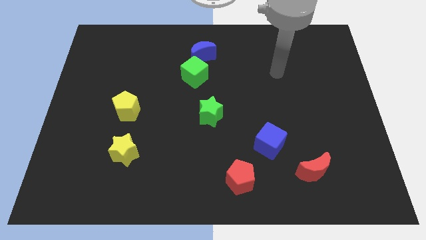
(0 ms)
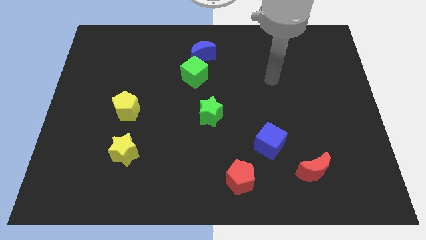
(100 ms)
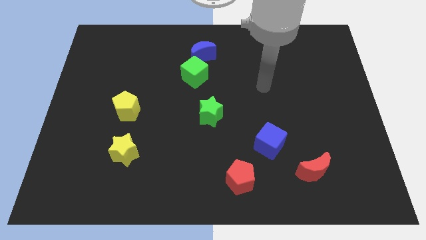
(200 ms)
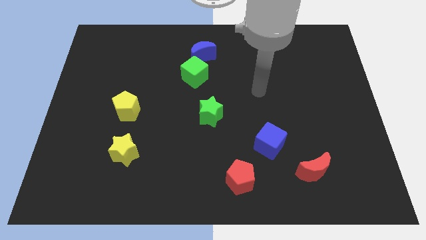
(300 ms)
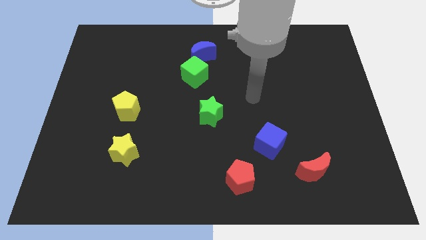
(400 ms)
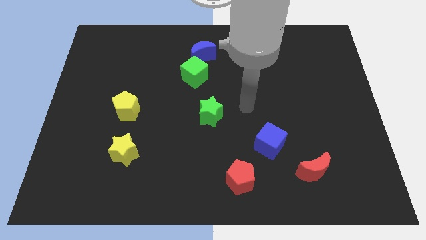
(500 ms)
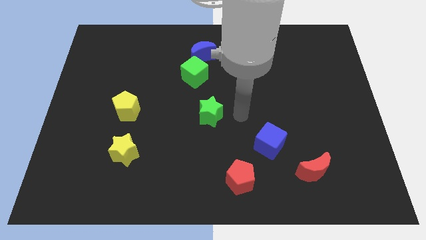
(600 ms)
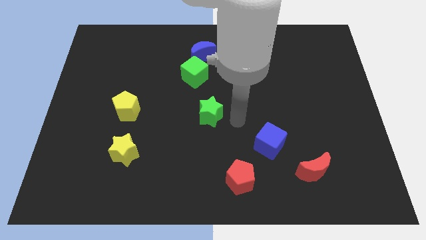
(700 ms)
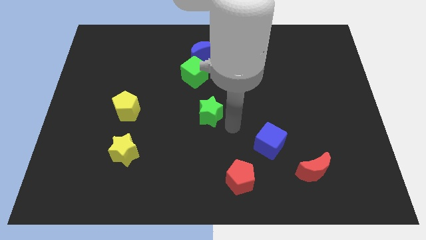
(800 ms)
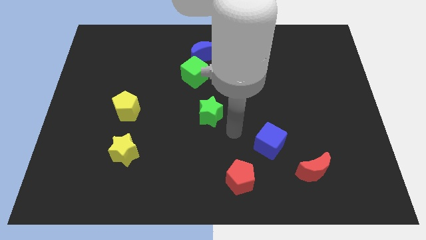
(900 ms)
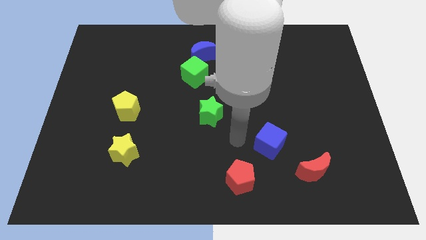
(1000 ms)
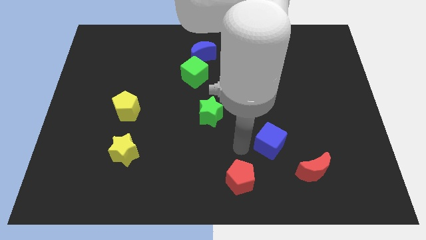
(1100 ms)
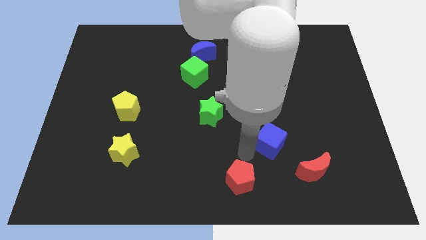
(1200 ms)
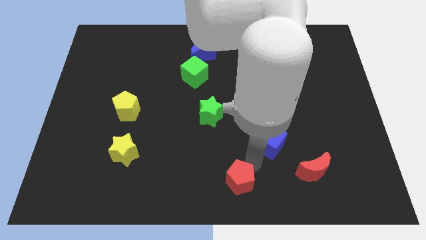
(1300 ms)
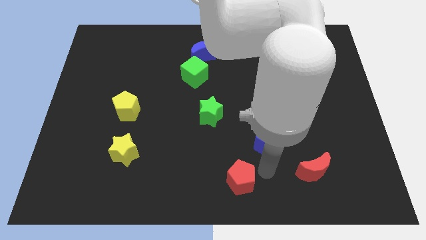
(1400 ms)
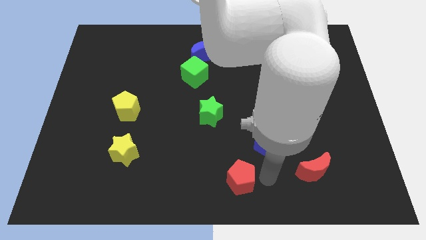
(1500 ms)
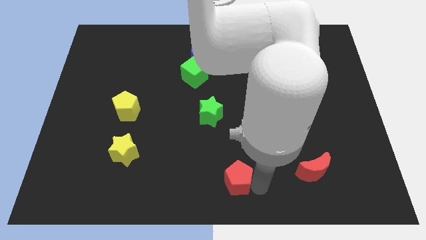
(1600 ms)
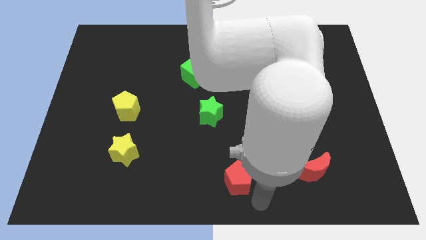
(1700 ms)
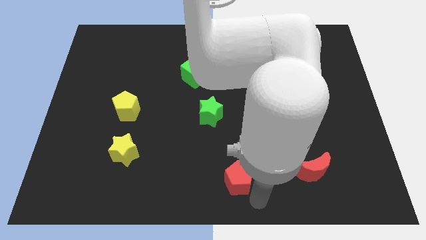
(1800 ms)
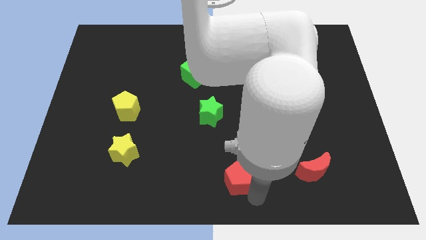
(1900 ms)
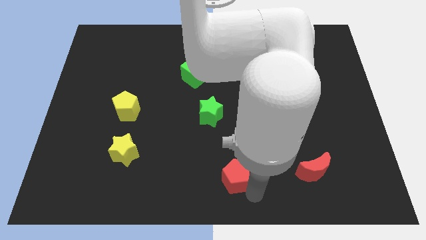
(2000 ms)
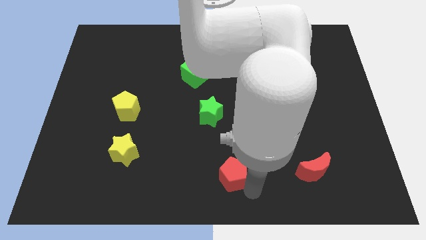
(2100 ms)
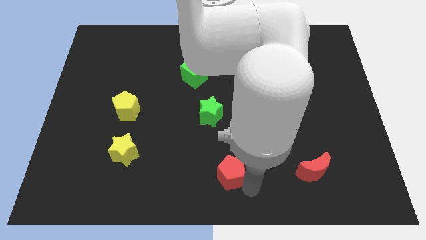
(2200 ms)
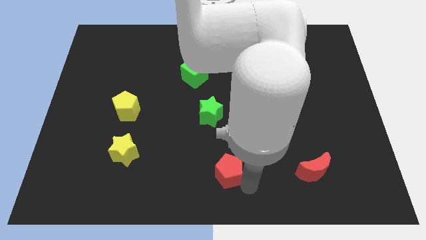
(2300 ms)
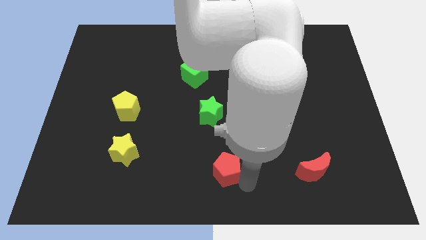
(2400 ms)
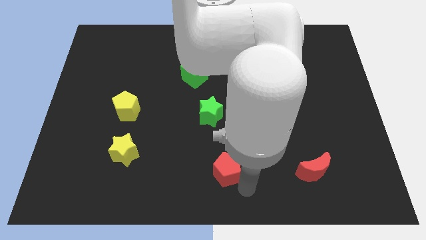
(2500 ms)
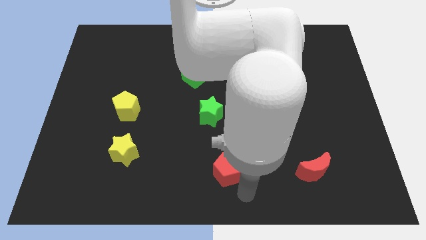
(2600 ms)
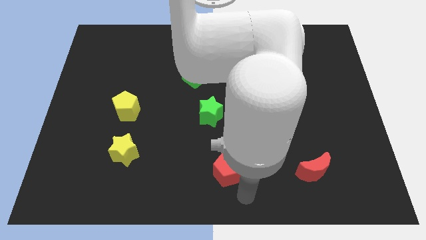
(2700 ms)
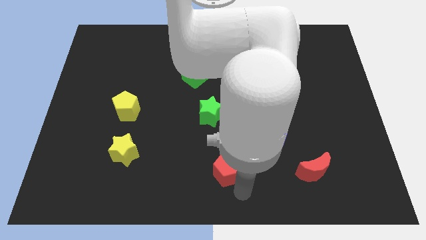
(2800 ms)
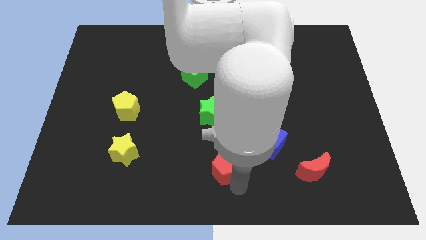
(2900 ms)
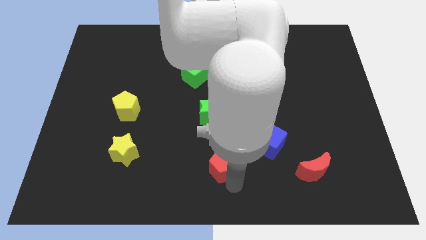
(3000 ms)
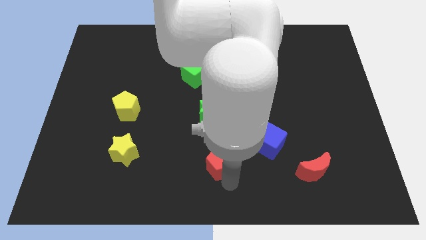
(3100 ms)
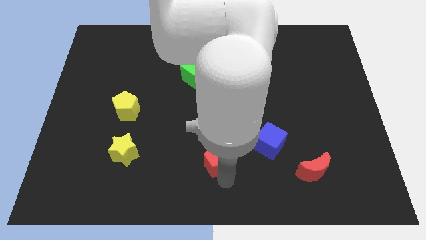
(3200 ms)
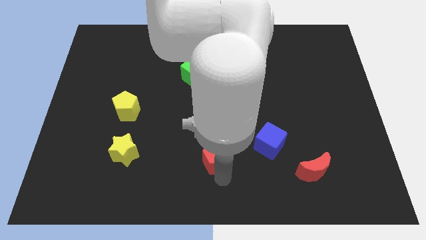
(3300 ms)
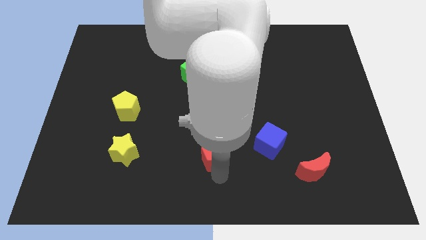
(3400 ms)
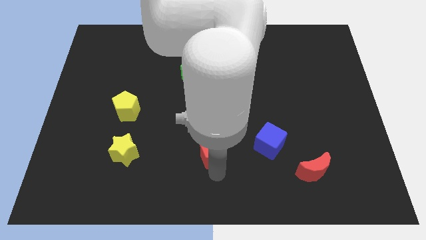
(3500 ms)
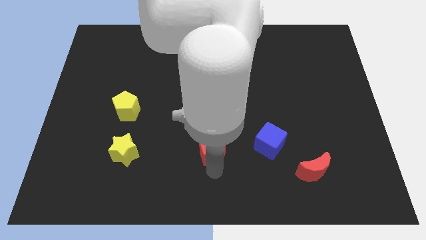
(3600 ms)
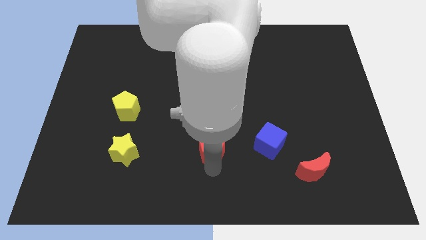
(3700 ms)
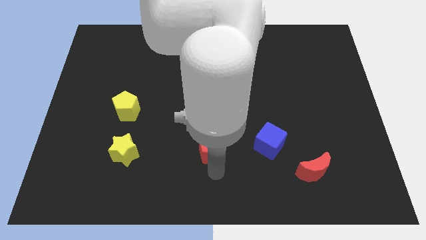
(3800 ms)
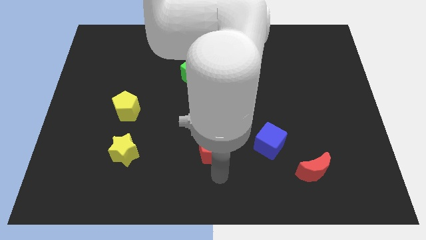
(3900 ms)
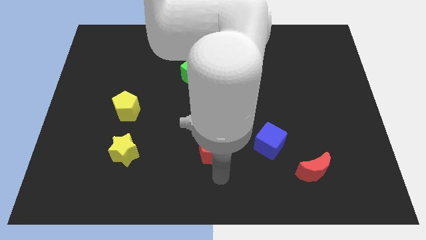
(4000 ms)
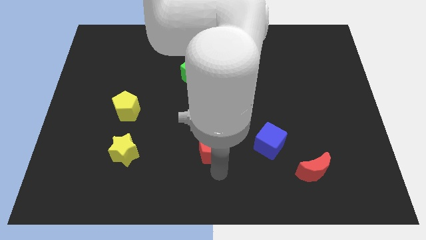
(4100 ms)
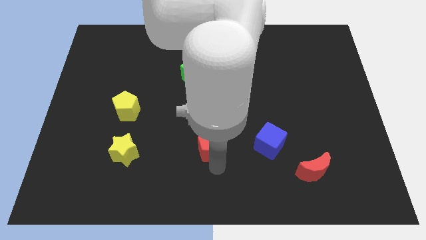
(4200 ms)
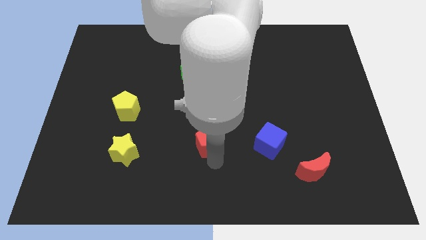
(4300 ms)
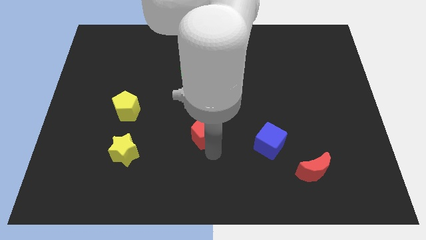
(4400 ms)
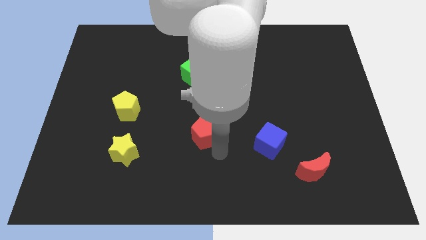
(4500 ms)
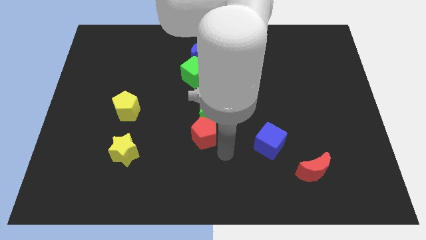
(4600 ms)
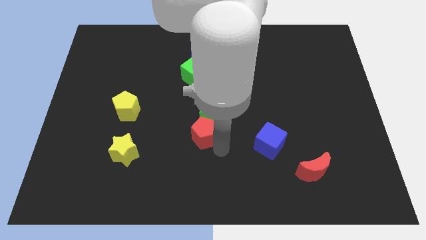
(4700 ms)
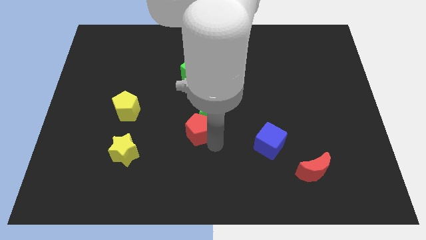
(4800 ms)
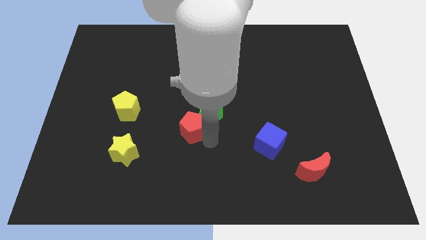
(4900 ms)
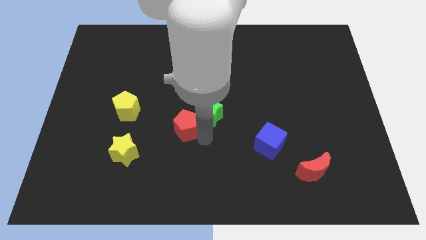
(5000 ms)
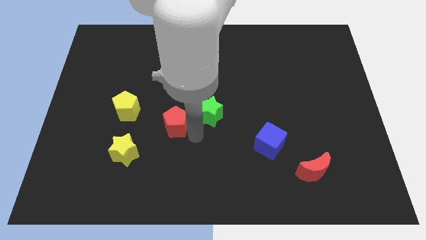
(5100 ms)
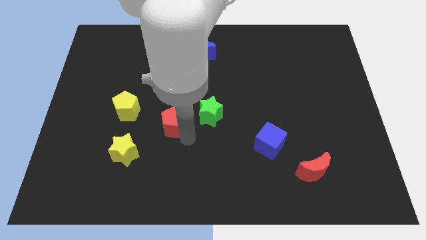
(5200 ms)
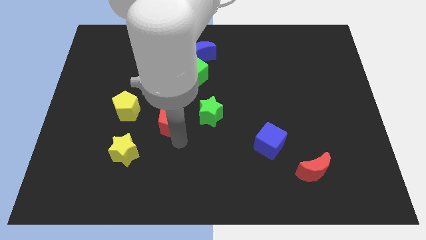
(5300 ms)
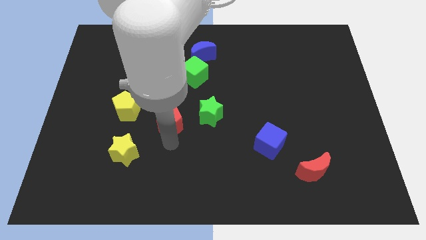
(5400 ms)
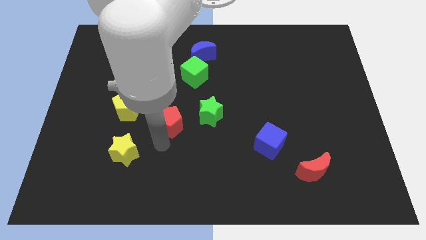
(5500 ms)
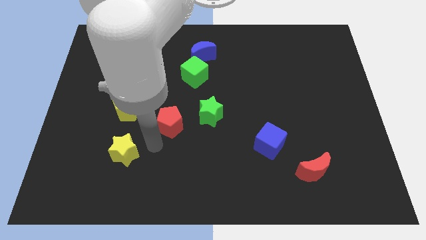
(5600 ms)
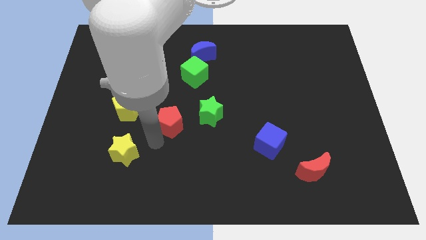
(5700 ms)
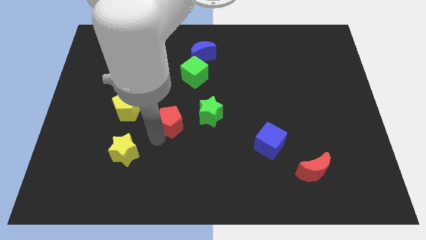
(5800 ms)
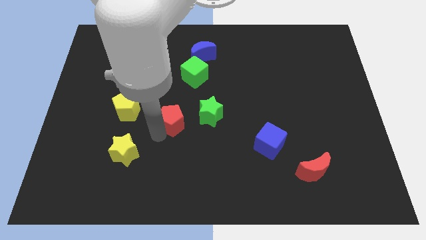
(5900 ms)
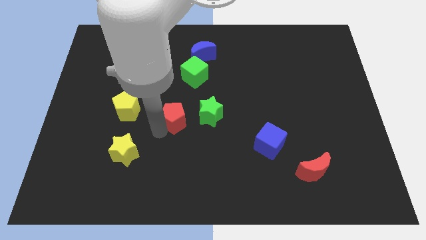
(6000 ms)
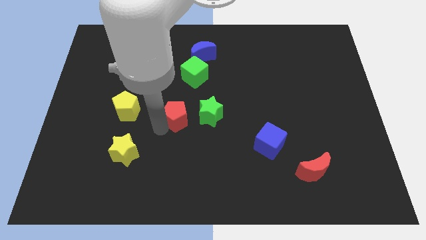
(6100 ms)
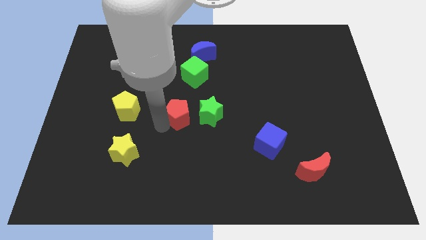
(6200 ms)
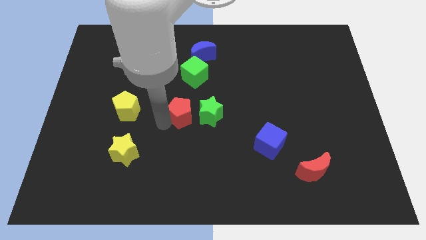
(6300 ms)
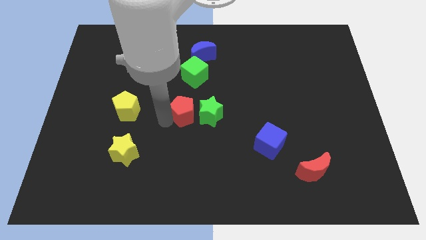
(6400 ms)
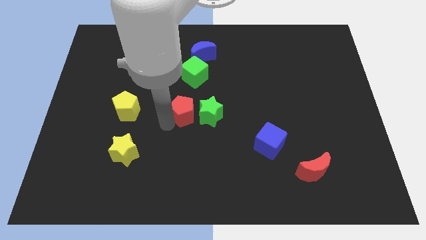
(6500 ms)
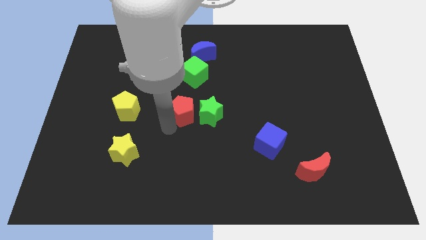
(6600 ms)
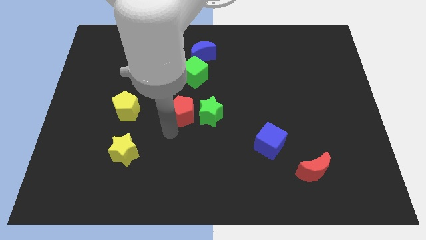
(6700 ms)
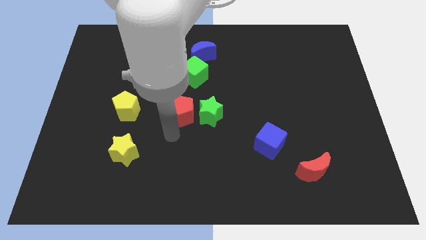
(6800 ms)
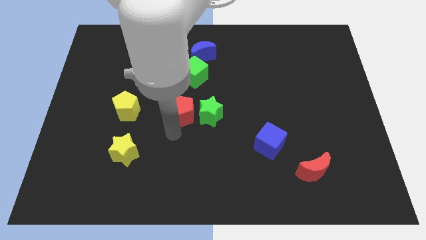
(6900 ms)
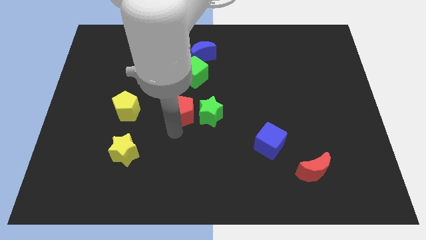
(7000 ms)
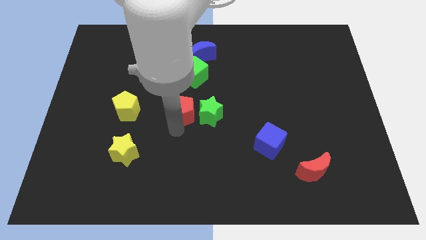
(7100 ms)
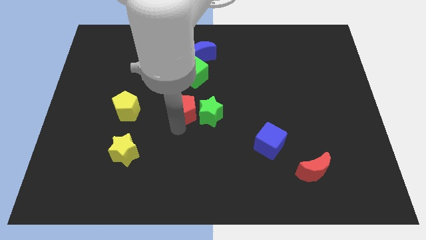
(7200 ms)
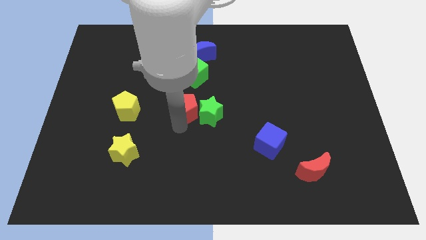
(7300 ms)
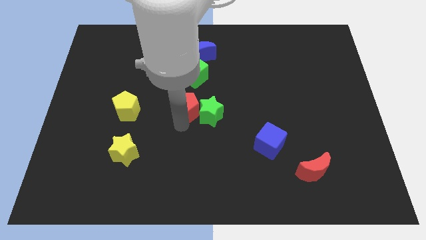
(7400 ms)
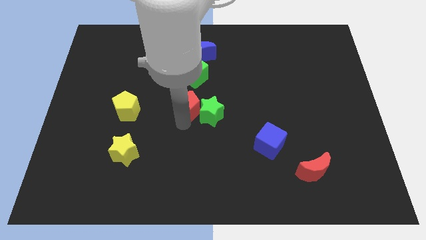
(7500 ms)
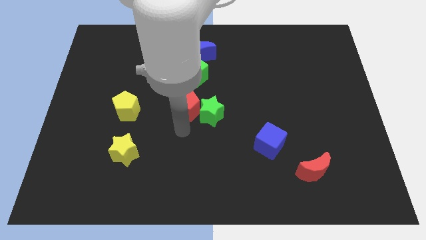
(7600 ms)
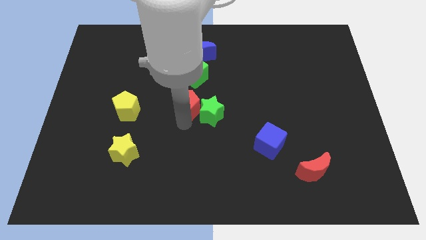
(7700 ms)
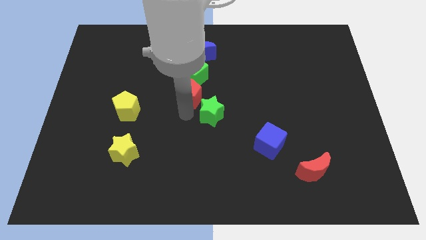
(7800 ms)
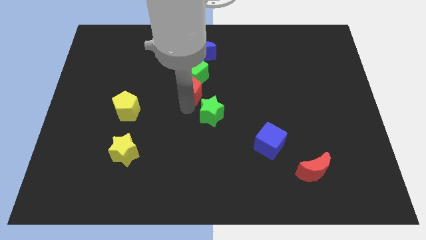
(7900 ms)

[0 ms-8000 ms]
push the red pentagon next to the green cube
